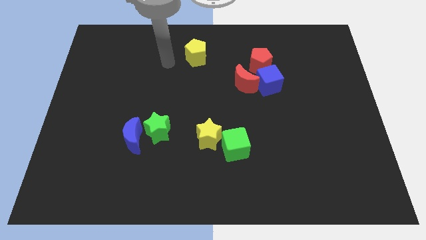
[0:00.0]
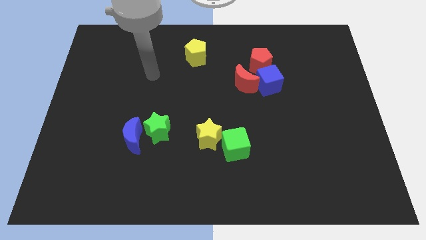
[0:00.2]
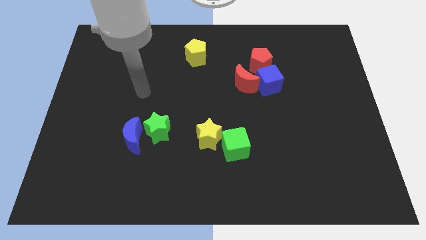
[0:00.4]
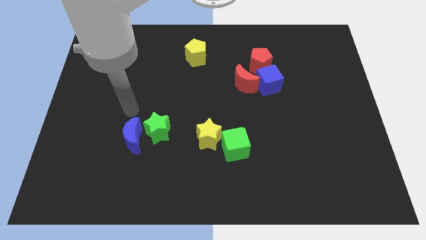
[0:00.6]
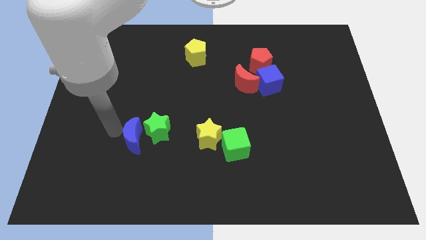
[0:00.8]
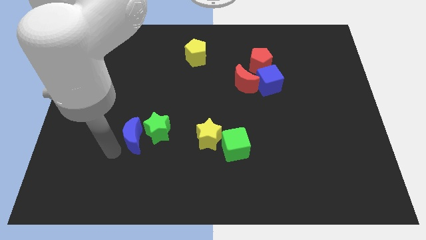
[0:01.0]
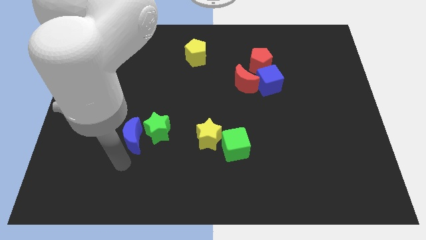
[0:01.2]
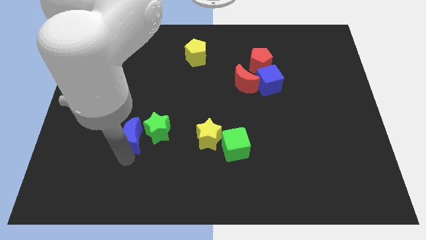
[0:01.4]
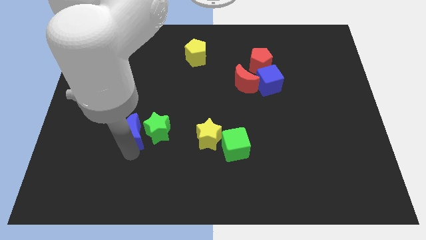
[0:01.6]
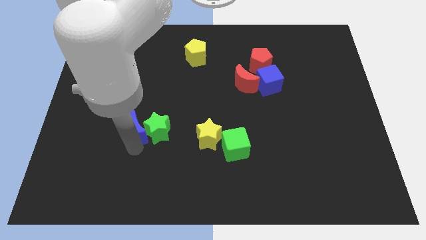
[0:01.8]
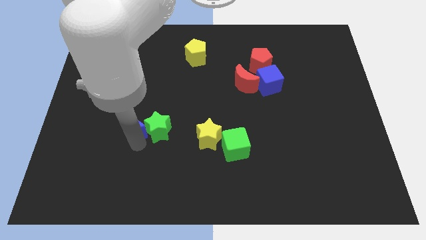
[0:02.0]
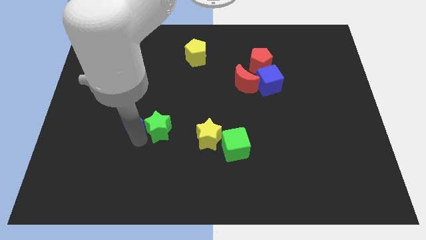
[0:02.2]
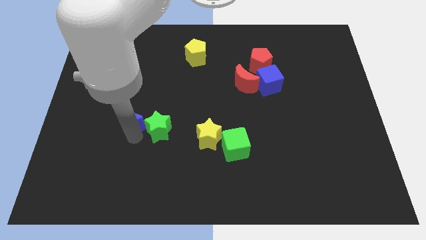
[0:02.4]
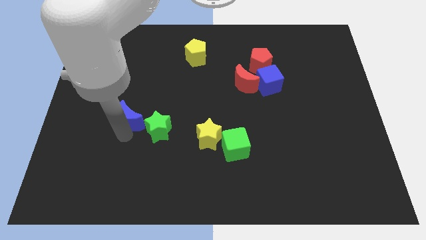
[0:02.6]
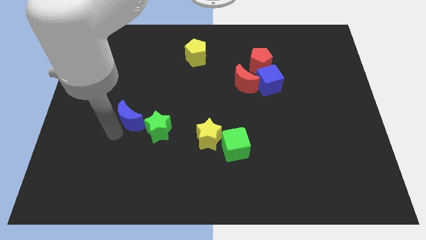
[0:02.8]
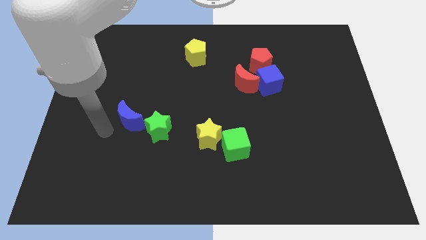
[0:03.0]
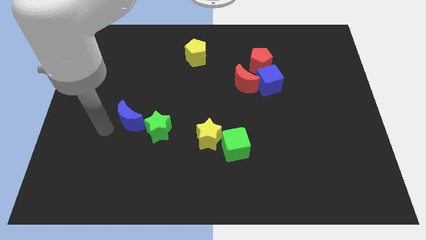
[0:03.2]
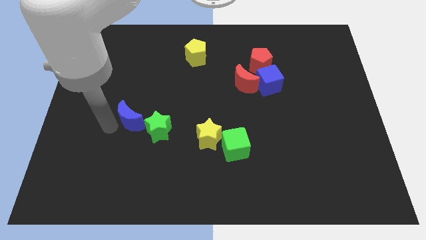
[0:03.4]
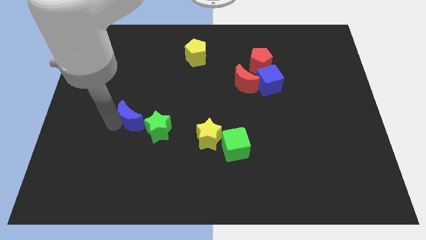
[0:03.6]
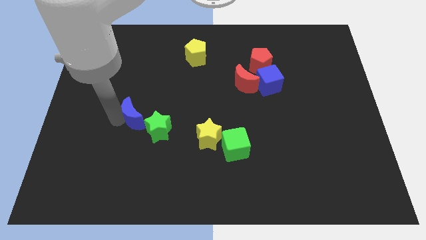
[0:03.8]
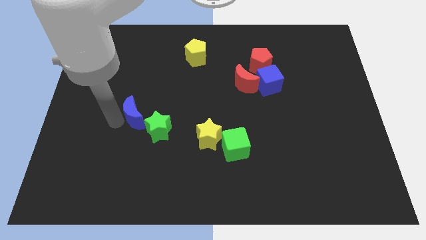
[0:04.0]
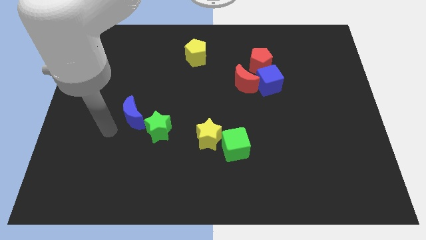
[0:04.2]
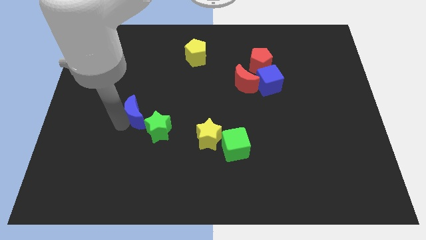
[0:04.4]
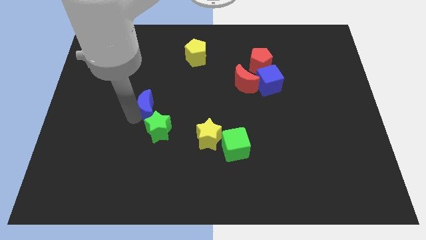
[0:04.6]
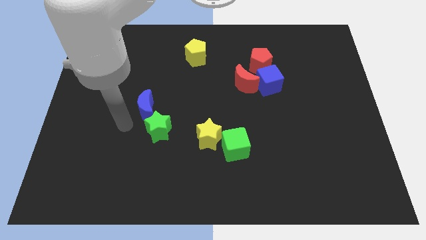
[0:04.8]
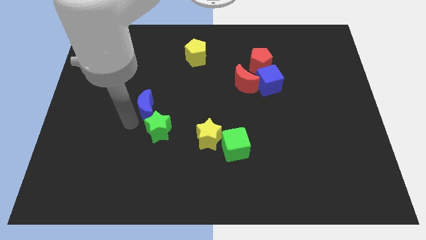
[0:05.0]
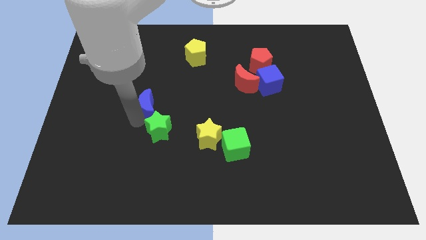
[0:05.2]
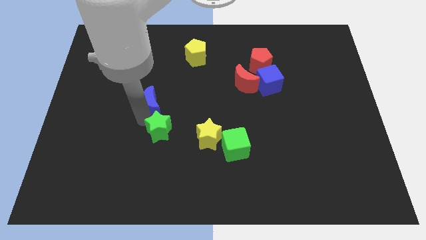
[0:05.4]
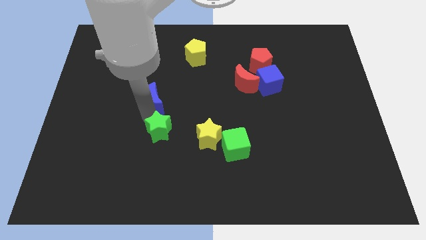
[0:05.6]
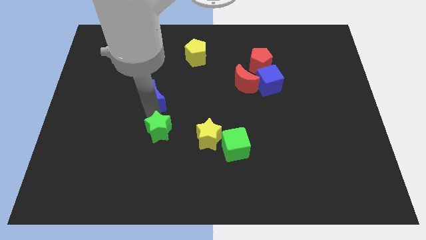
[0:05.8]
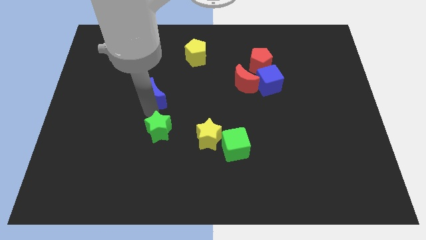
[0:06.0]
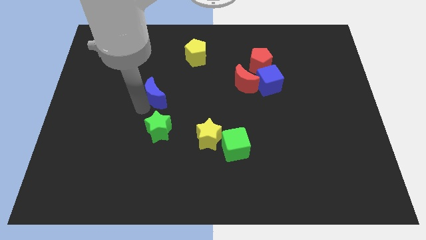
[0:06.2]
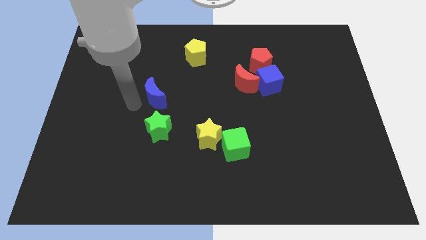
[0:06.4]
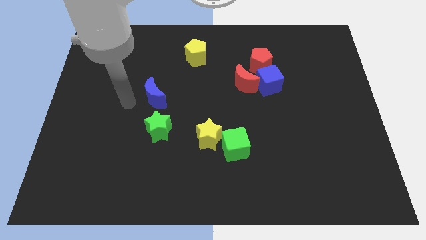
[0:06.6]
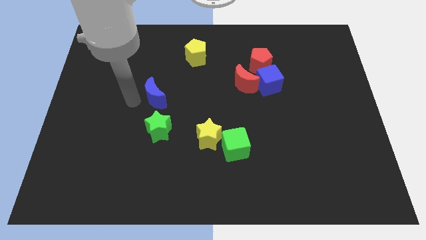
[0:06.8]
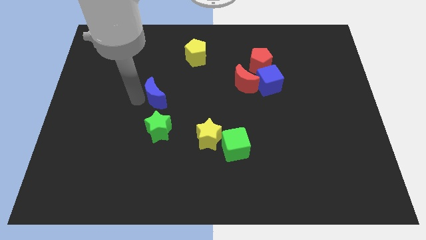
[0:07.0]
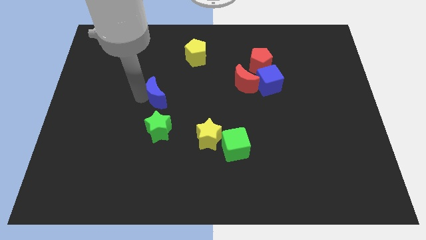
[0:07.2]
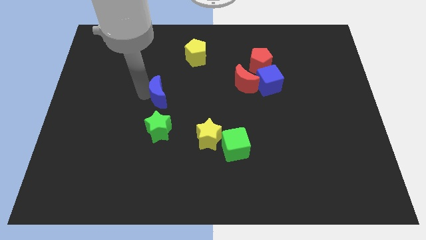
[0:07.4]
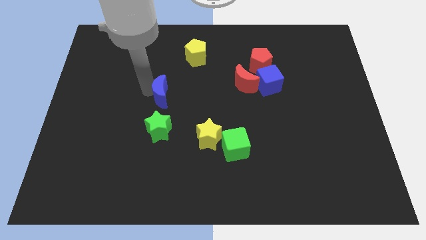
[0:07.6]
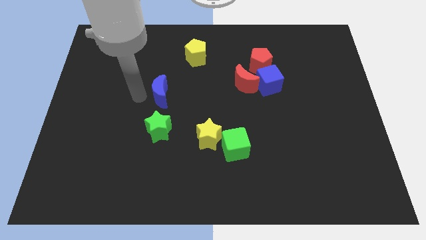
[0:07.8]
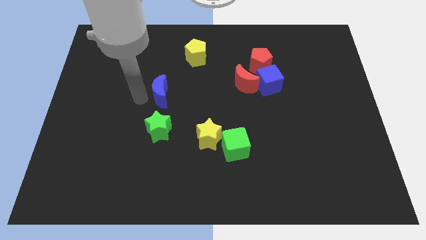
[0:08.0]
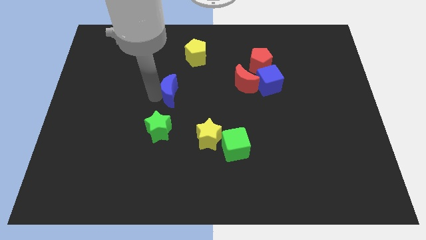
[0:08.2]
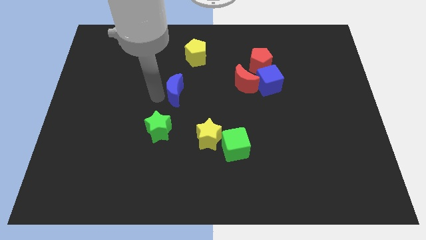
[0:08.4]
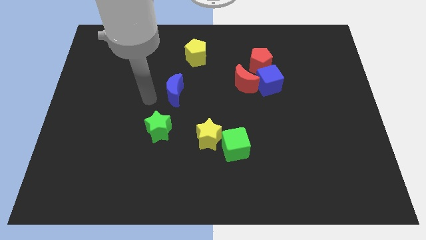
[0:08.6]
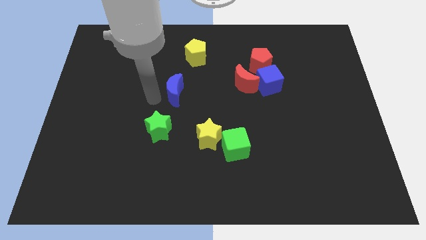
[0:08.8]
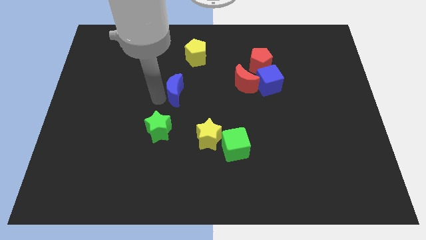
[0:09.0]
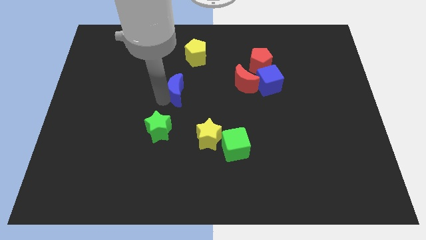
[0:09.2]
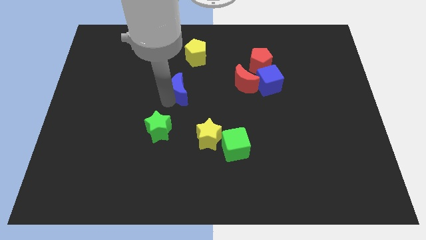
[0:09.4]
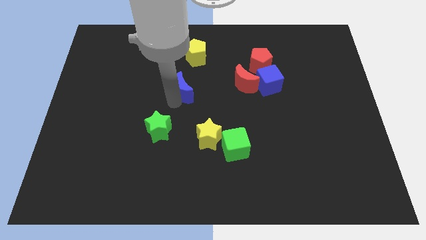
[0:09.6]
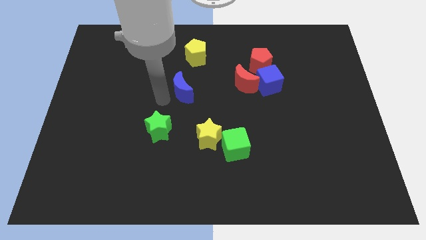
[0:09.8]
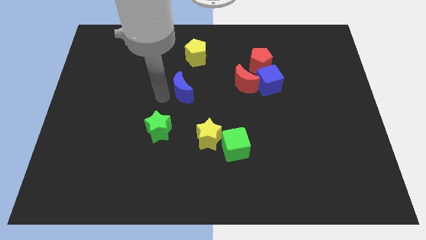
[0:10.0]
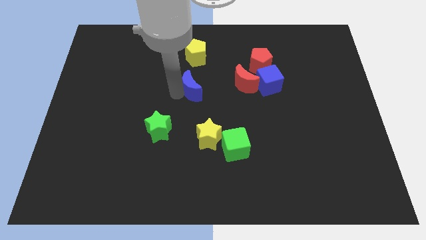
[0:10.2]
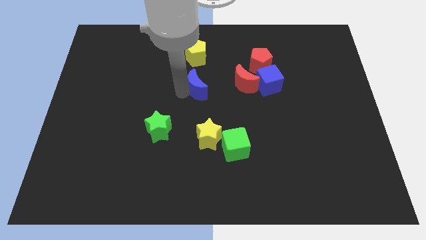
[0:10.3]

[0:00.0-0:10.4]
move the blue moon upwards and to the right

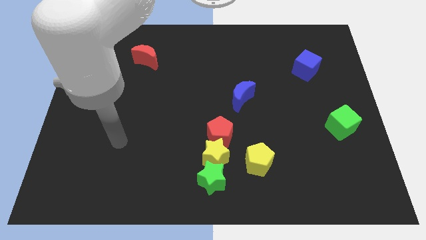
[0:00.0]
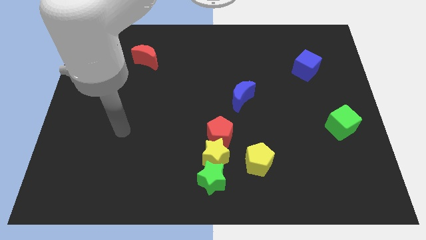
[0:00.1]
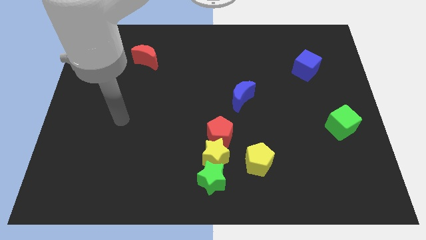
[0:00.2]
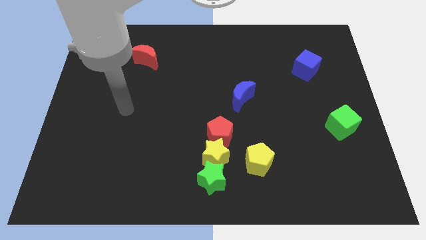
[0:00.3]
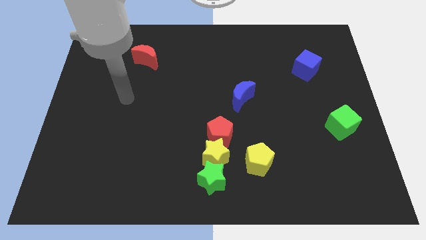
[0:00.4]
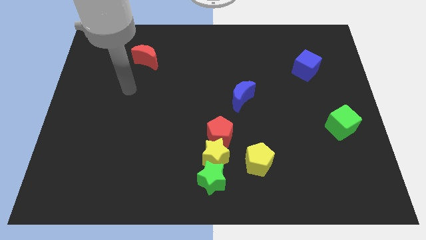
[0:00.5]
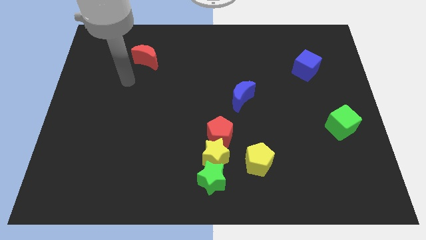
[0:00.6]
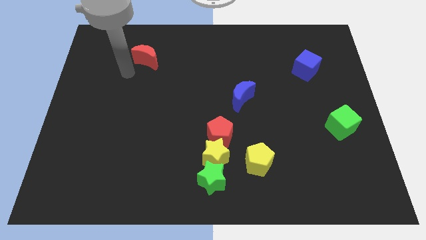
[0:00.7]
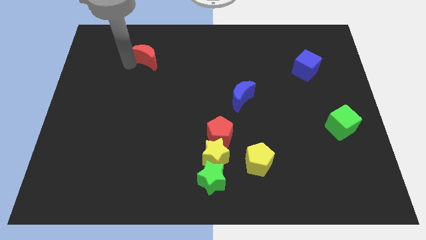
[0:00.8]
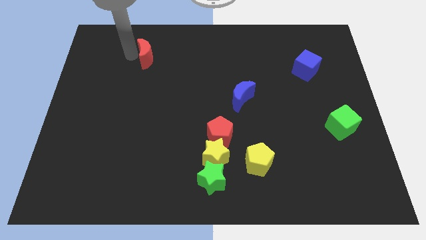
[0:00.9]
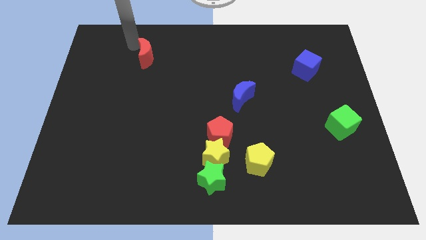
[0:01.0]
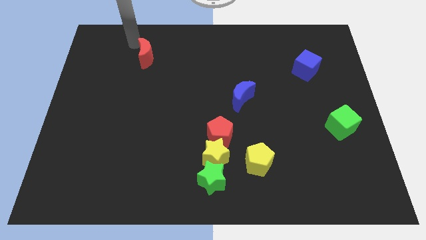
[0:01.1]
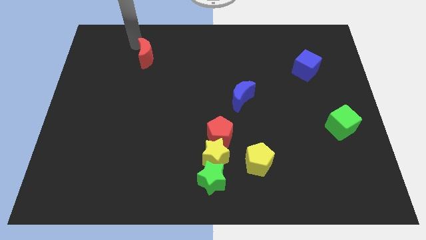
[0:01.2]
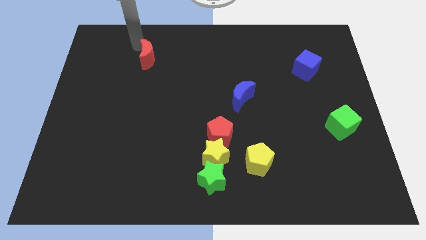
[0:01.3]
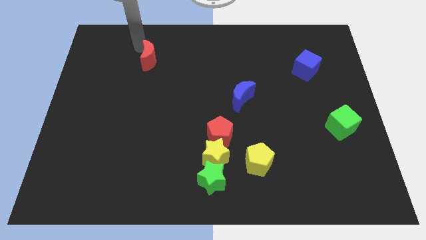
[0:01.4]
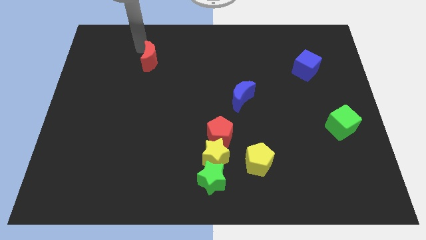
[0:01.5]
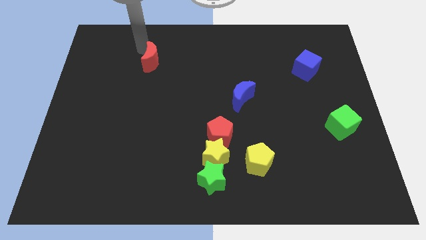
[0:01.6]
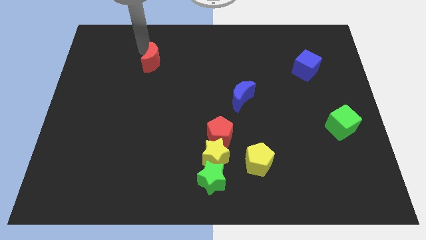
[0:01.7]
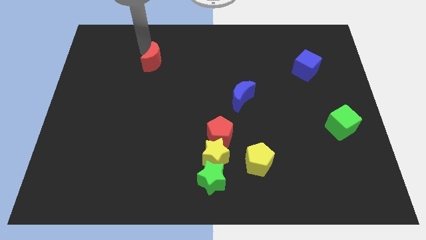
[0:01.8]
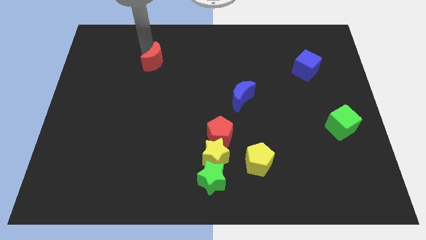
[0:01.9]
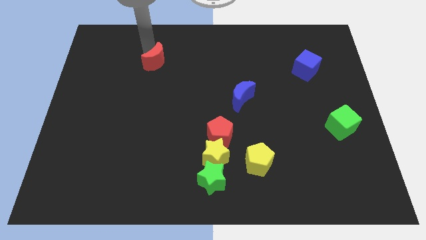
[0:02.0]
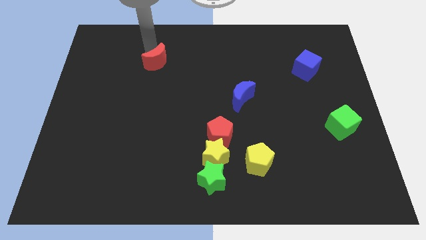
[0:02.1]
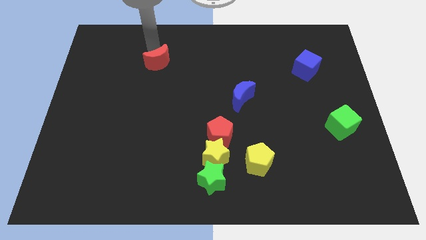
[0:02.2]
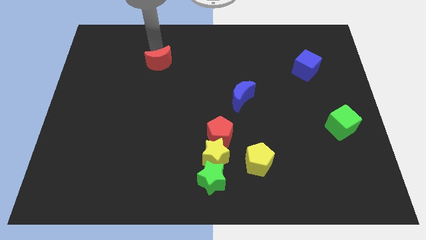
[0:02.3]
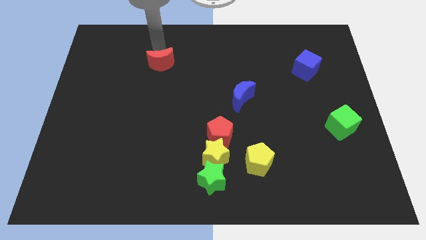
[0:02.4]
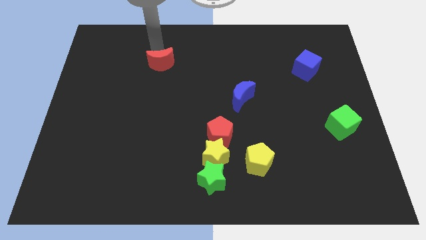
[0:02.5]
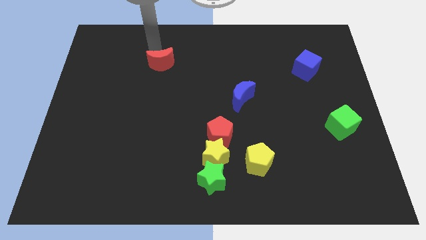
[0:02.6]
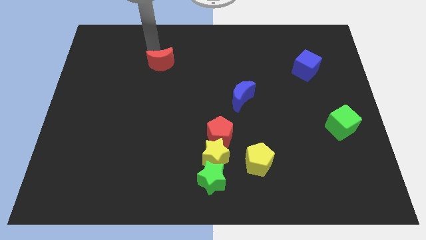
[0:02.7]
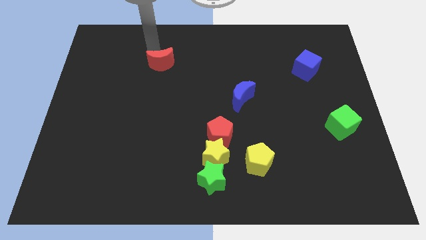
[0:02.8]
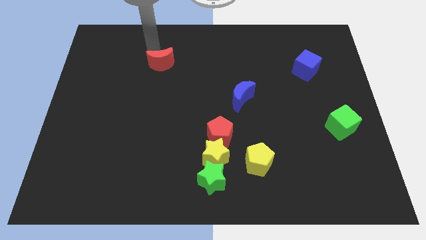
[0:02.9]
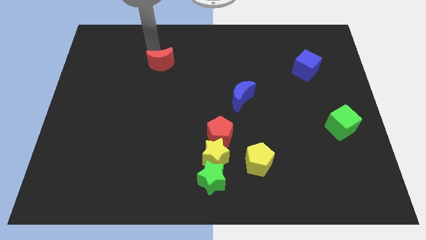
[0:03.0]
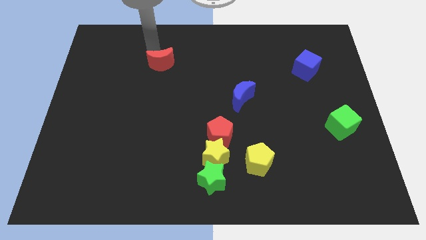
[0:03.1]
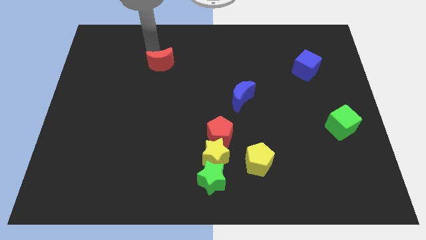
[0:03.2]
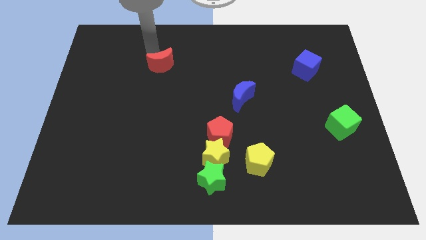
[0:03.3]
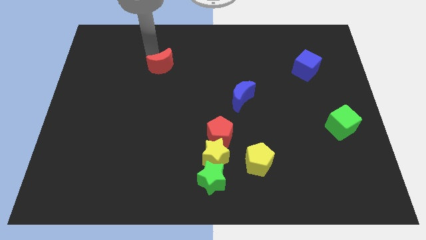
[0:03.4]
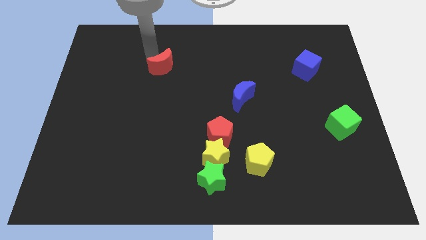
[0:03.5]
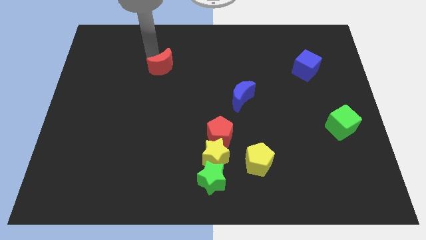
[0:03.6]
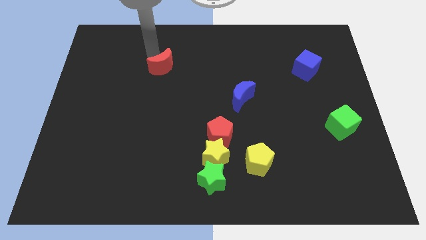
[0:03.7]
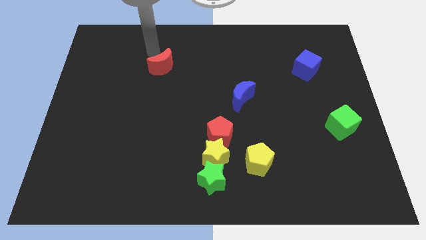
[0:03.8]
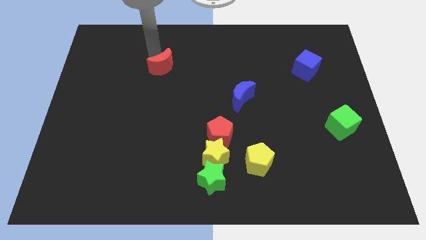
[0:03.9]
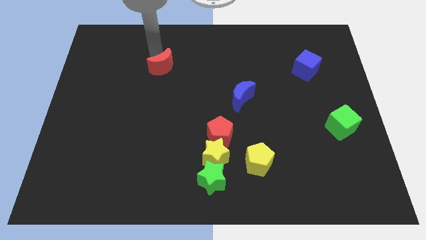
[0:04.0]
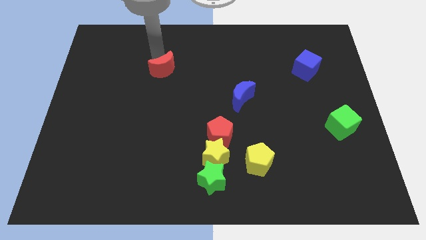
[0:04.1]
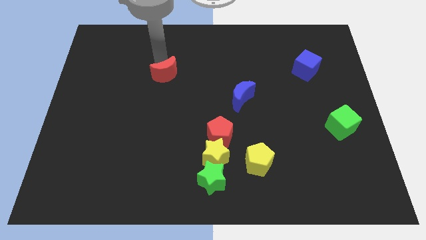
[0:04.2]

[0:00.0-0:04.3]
move the red moon a little downwards and to the right
